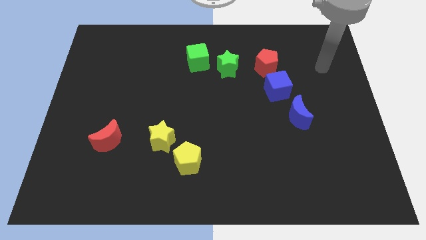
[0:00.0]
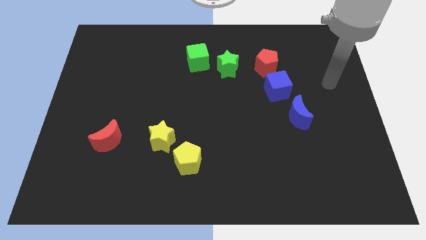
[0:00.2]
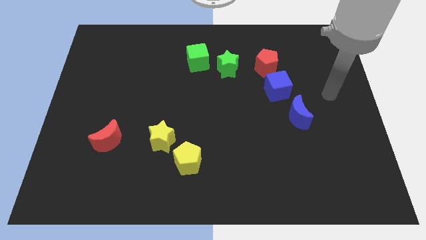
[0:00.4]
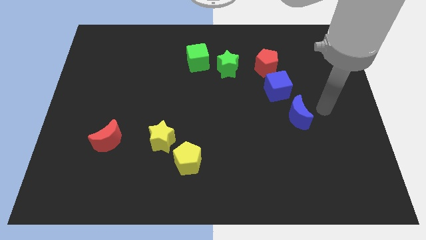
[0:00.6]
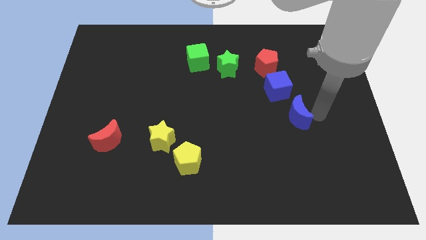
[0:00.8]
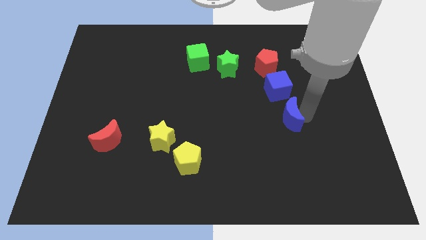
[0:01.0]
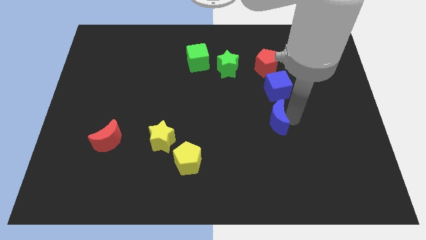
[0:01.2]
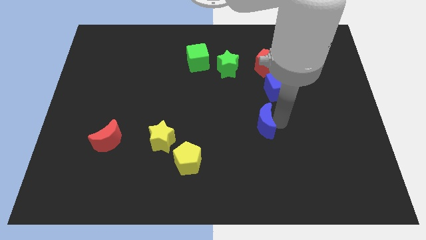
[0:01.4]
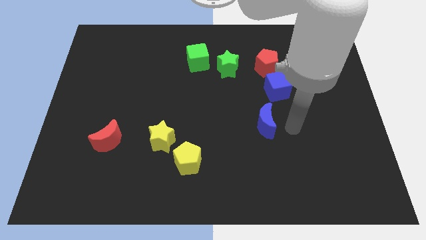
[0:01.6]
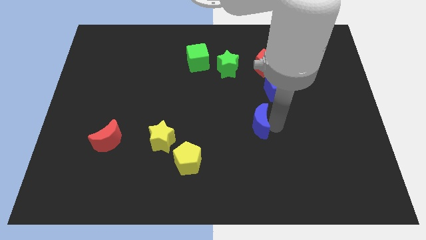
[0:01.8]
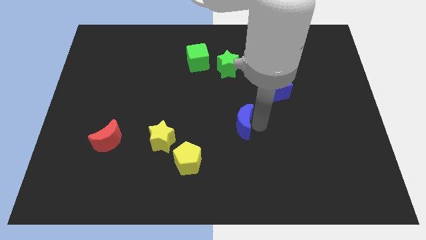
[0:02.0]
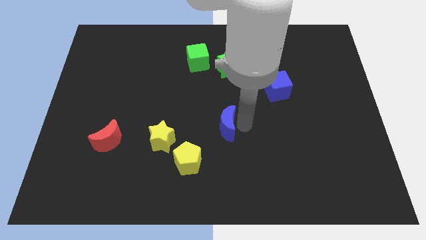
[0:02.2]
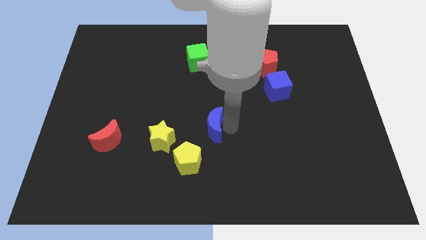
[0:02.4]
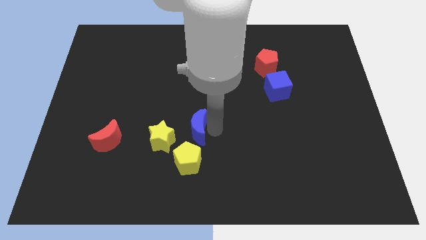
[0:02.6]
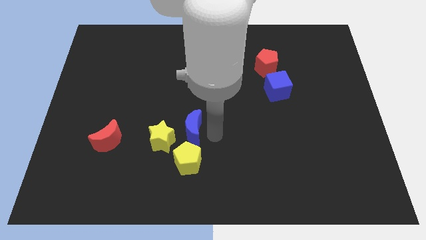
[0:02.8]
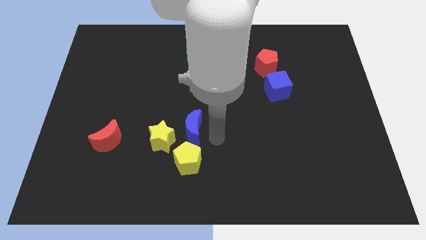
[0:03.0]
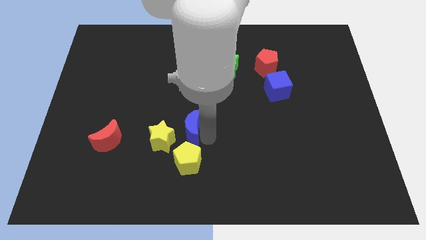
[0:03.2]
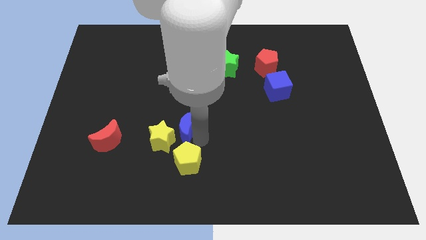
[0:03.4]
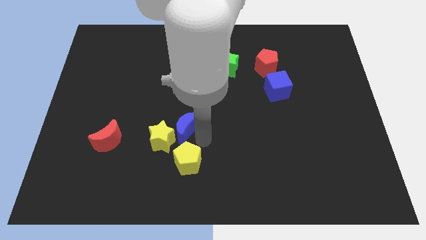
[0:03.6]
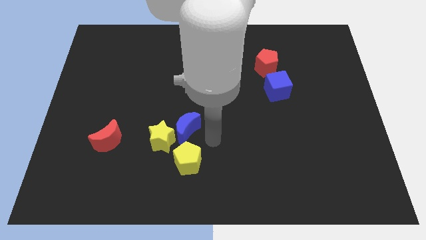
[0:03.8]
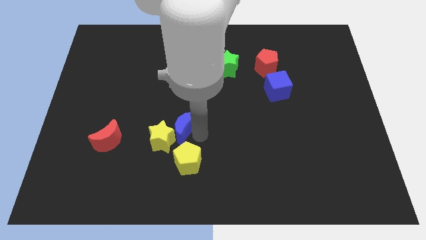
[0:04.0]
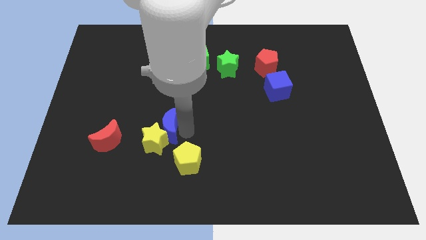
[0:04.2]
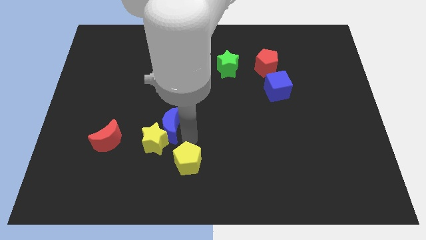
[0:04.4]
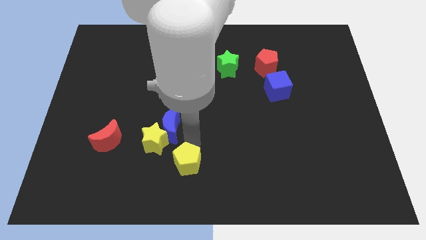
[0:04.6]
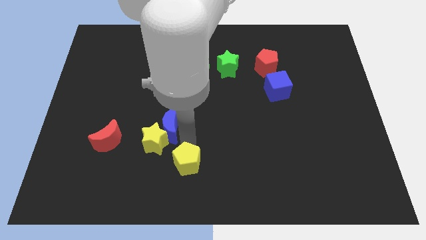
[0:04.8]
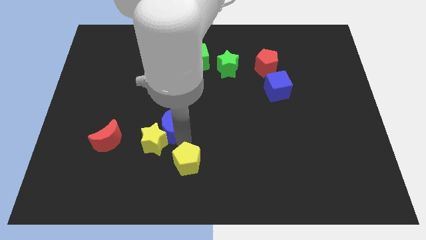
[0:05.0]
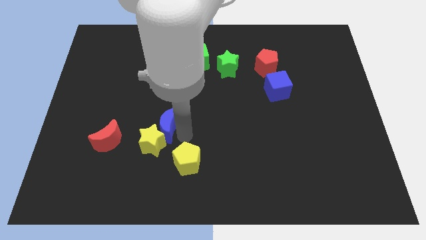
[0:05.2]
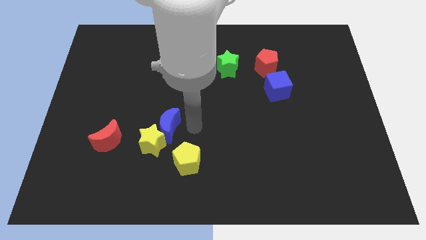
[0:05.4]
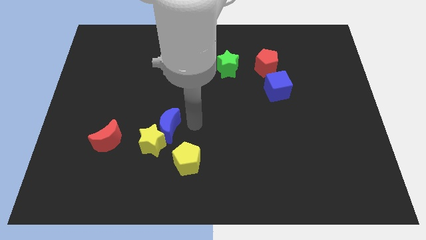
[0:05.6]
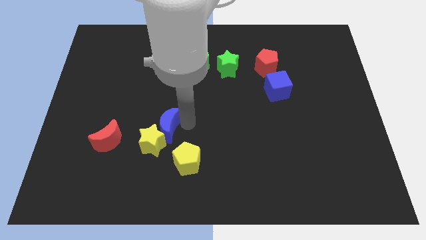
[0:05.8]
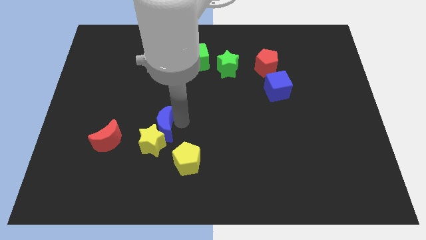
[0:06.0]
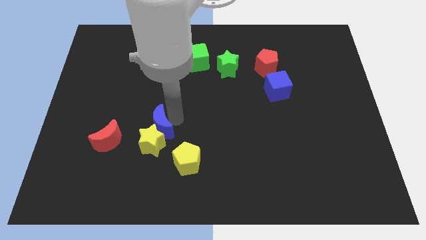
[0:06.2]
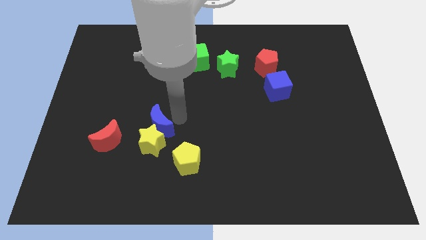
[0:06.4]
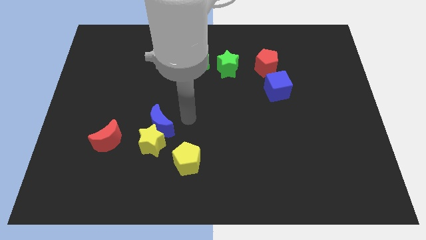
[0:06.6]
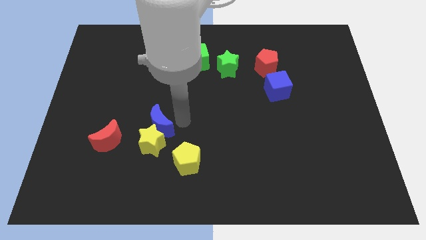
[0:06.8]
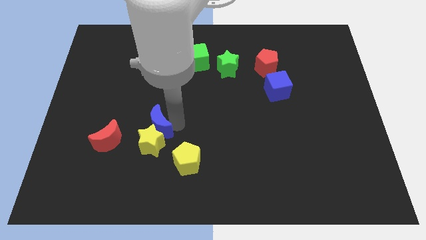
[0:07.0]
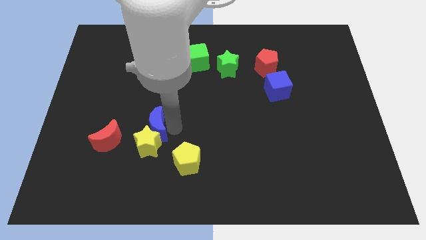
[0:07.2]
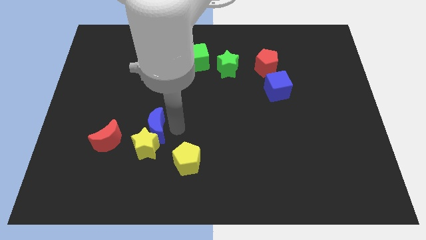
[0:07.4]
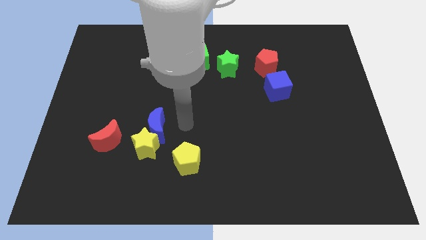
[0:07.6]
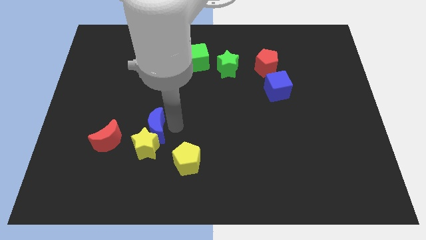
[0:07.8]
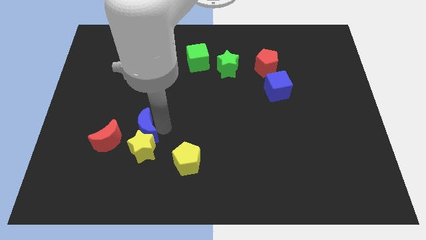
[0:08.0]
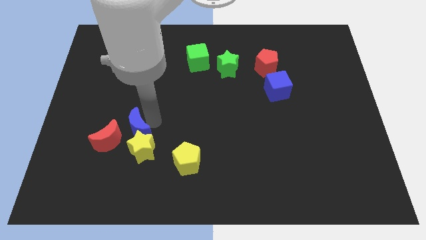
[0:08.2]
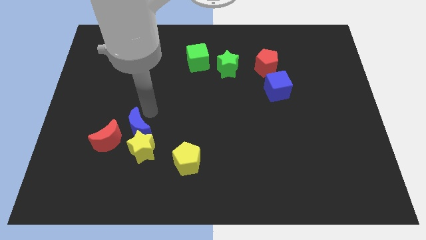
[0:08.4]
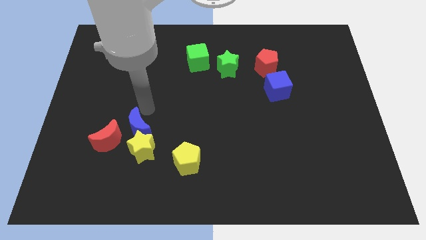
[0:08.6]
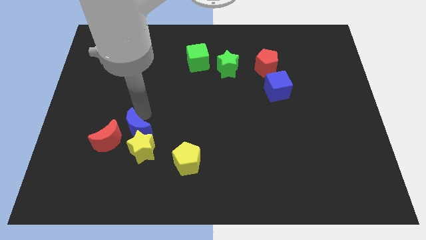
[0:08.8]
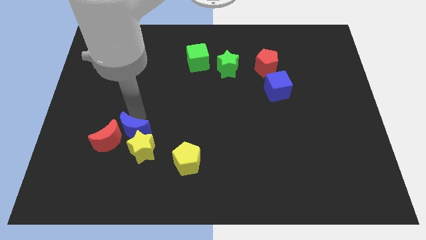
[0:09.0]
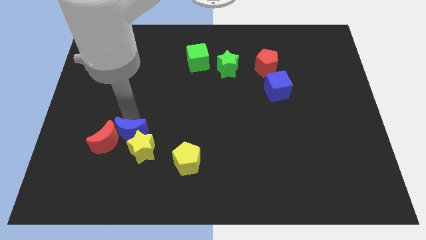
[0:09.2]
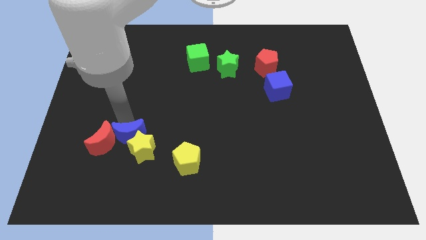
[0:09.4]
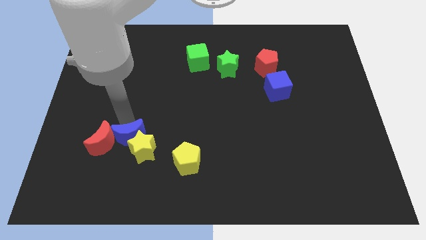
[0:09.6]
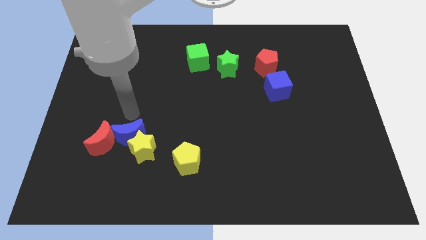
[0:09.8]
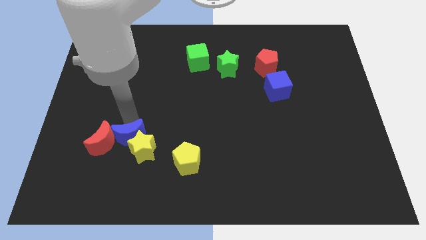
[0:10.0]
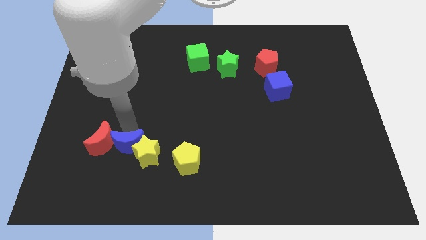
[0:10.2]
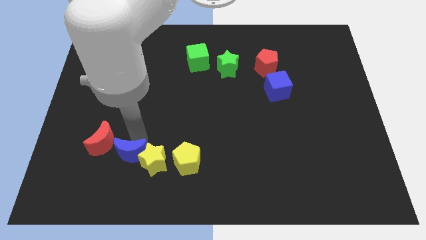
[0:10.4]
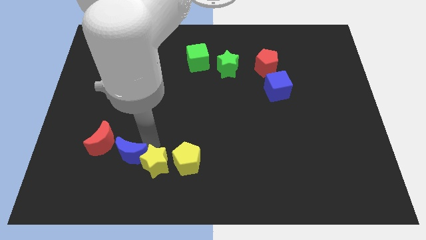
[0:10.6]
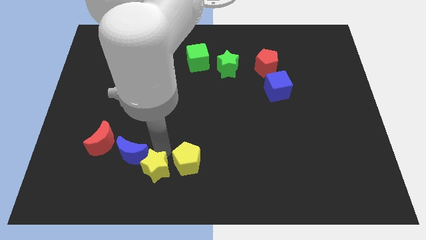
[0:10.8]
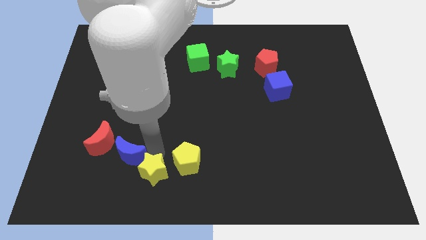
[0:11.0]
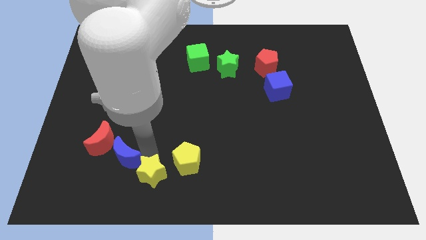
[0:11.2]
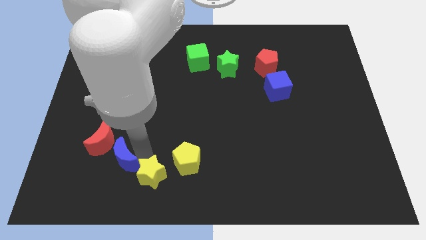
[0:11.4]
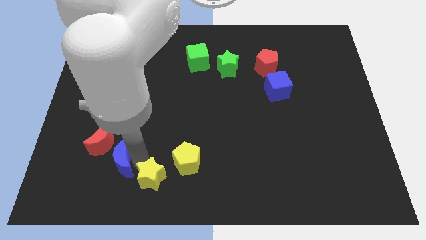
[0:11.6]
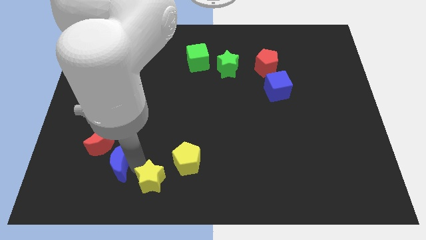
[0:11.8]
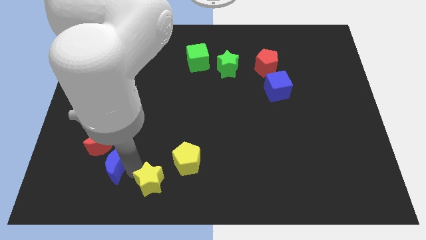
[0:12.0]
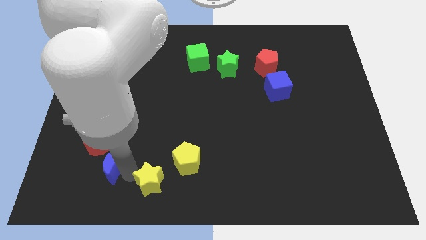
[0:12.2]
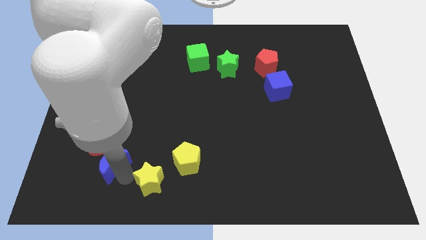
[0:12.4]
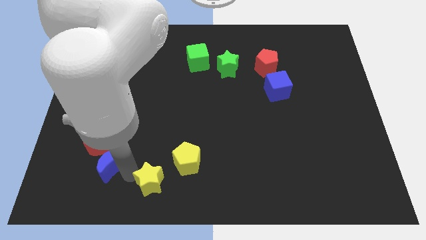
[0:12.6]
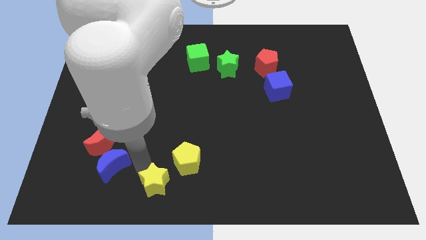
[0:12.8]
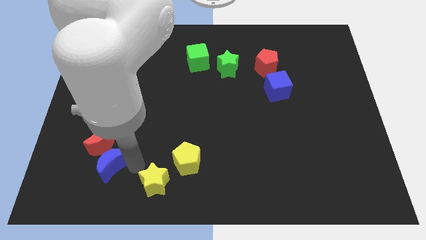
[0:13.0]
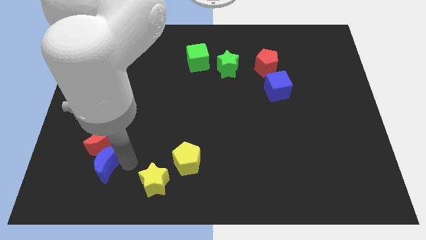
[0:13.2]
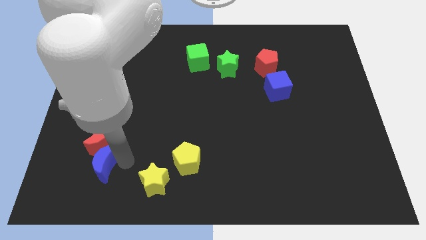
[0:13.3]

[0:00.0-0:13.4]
move the blue moon diagonally down and to the left of the red moon

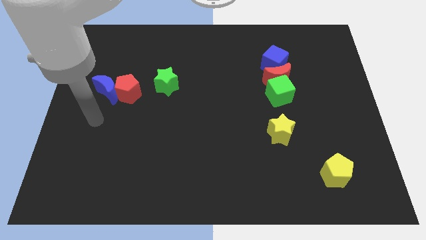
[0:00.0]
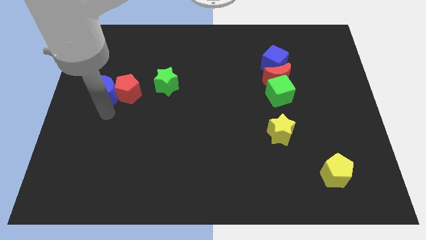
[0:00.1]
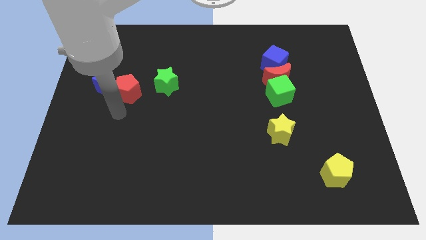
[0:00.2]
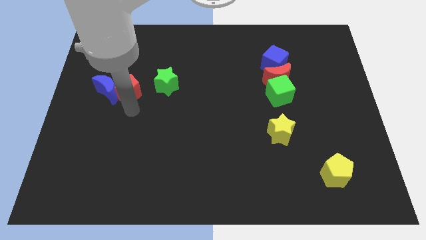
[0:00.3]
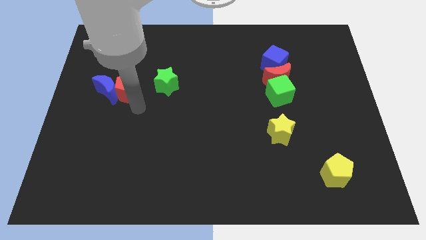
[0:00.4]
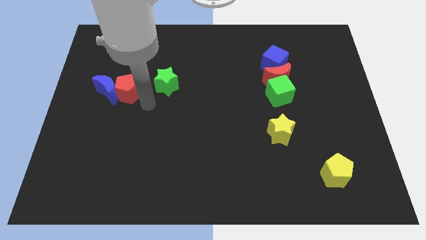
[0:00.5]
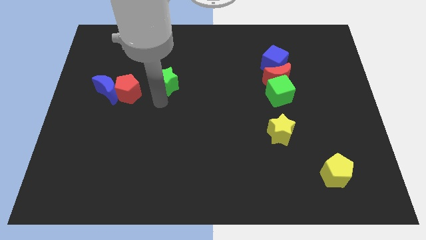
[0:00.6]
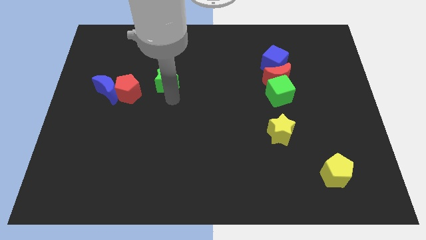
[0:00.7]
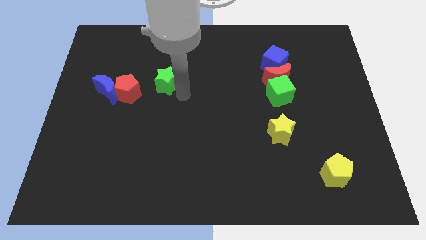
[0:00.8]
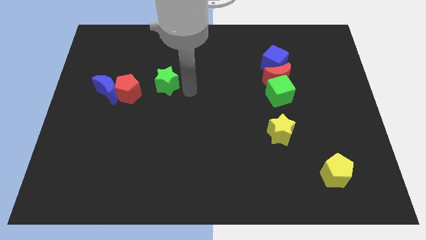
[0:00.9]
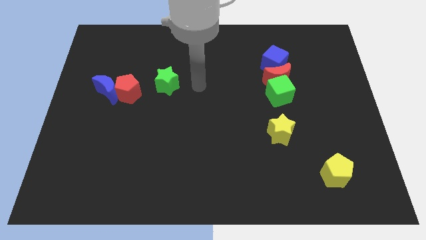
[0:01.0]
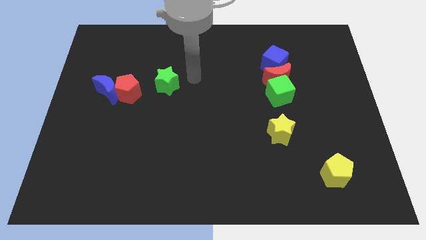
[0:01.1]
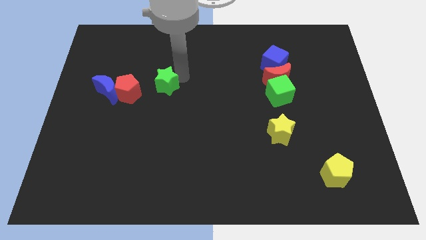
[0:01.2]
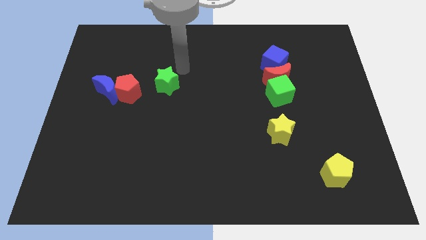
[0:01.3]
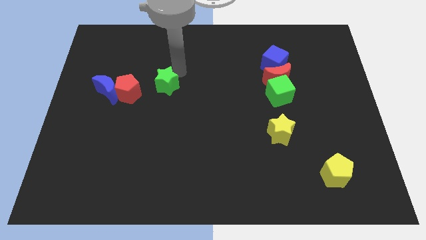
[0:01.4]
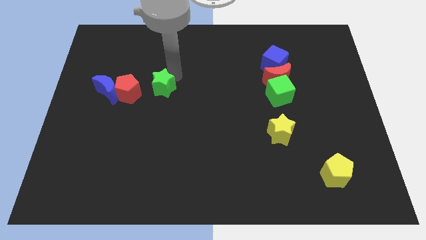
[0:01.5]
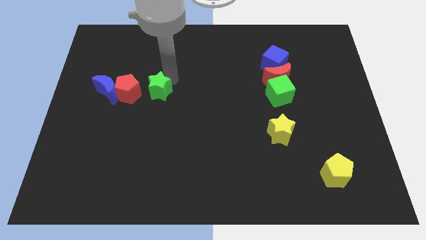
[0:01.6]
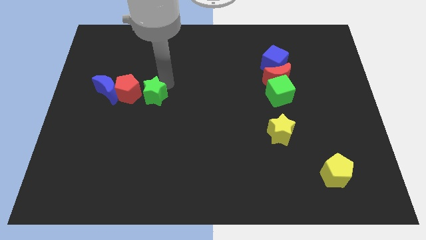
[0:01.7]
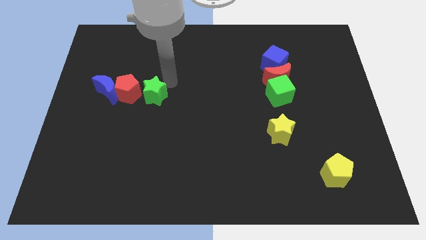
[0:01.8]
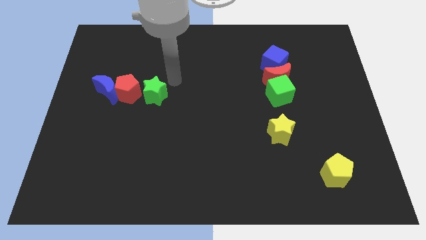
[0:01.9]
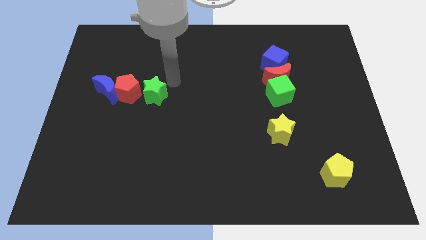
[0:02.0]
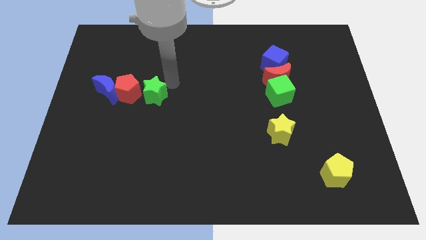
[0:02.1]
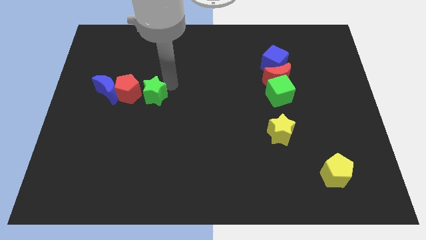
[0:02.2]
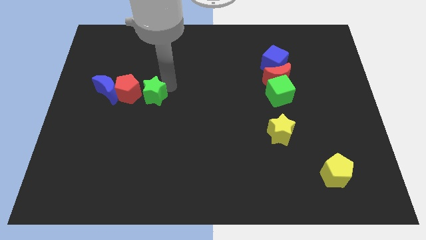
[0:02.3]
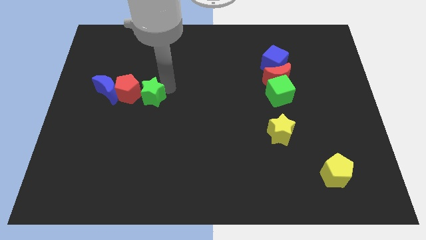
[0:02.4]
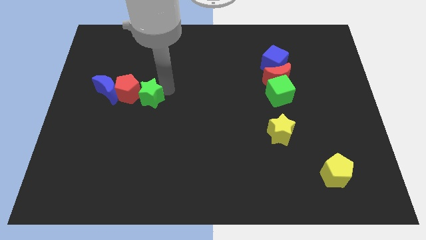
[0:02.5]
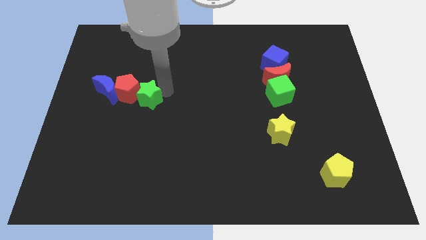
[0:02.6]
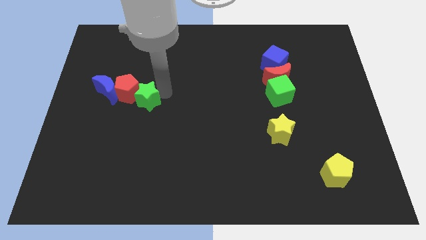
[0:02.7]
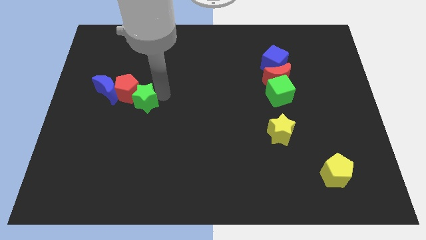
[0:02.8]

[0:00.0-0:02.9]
put the green star to the bottom right side of the blue moon
